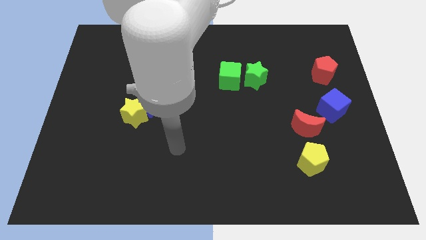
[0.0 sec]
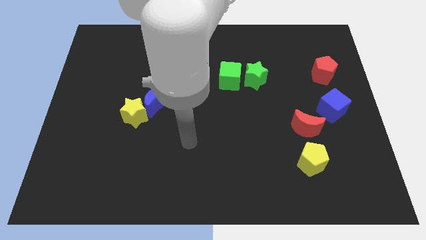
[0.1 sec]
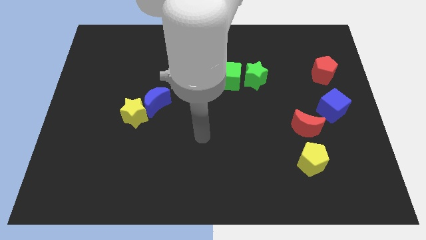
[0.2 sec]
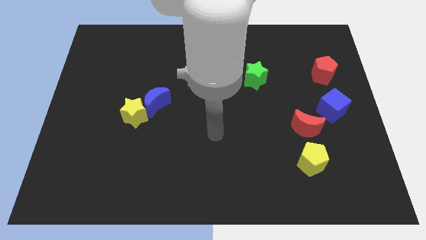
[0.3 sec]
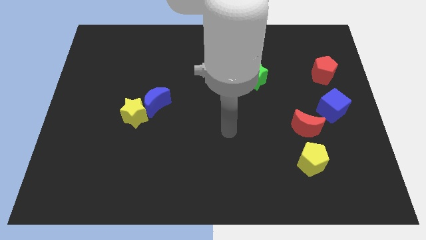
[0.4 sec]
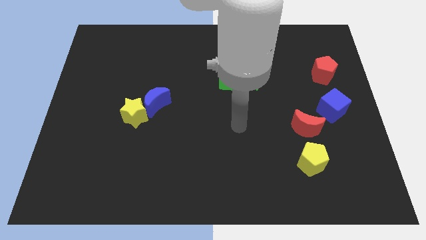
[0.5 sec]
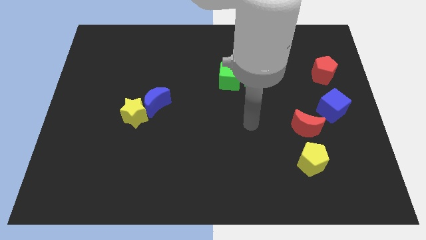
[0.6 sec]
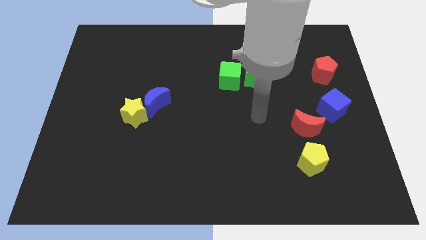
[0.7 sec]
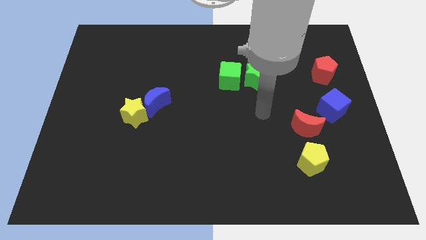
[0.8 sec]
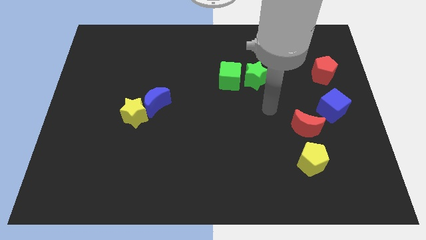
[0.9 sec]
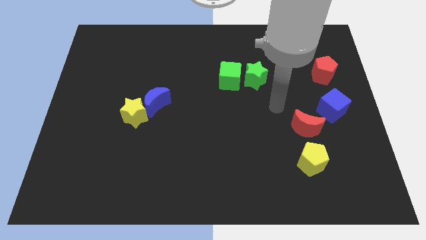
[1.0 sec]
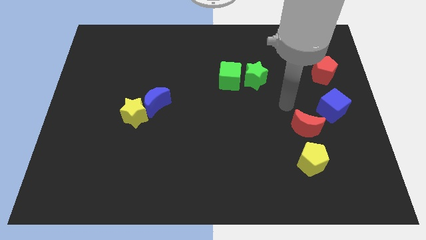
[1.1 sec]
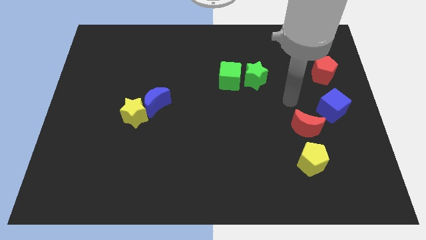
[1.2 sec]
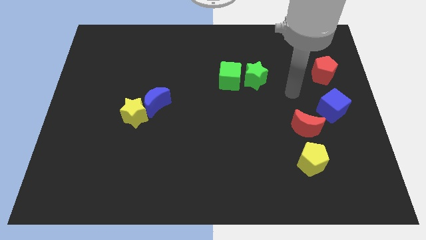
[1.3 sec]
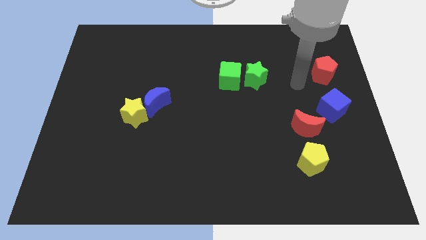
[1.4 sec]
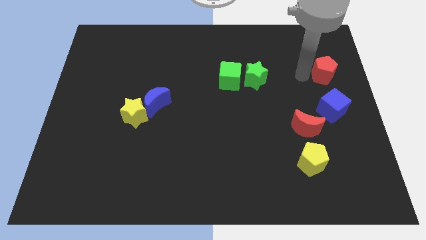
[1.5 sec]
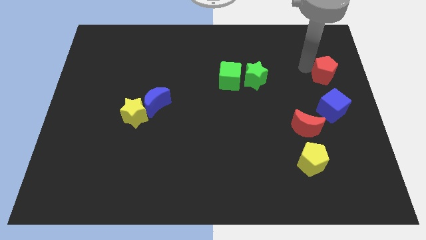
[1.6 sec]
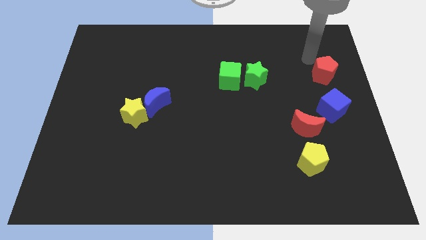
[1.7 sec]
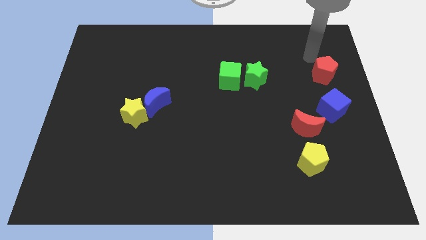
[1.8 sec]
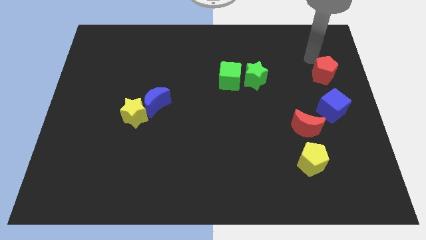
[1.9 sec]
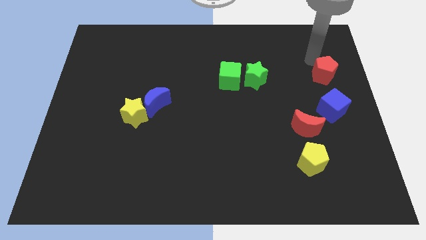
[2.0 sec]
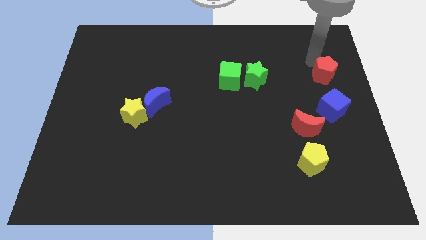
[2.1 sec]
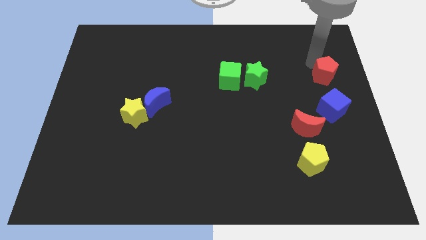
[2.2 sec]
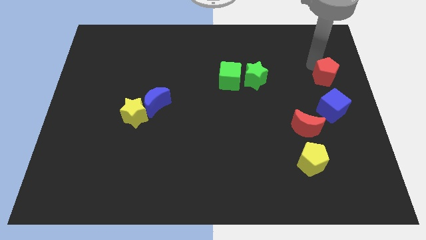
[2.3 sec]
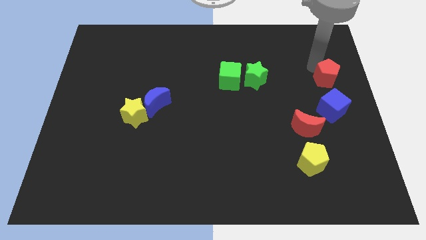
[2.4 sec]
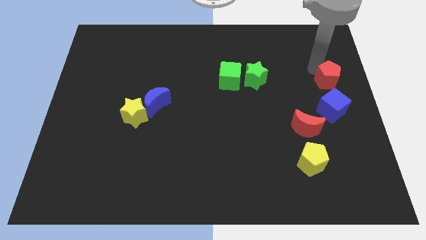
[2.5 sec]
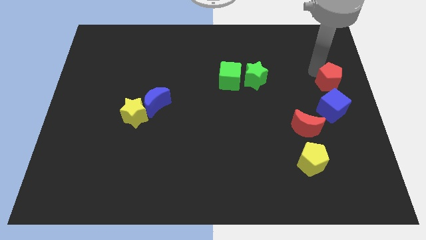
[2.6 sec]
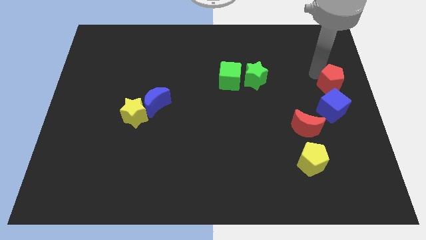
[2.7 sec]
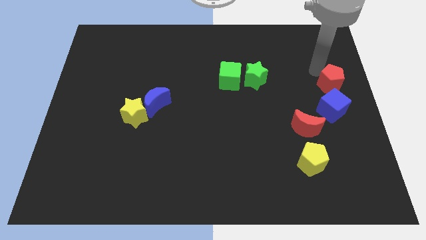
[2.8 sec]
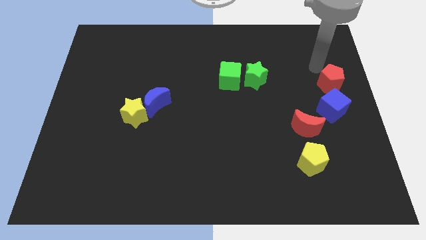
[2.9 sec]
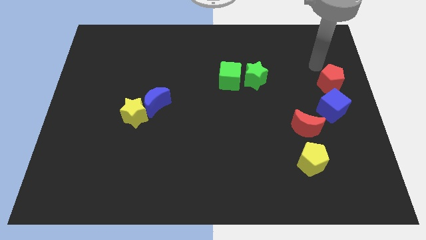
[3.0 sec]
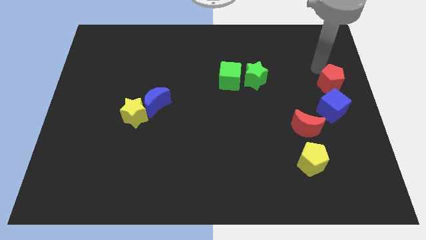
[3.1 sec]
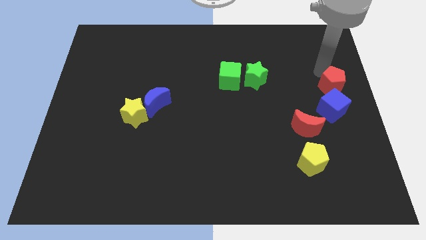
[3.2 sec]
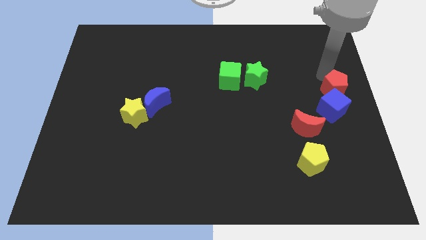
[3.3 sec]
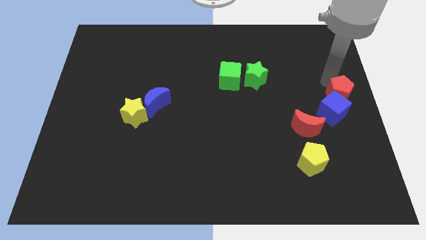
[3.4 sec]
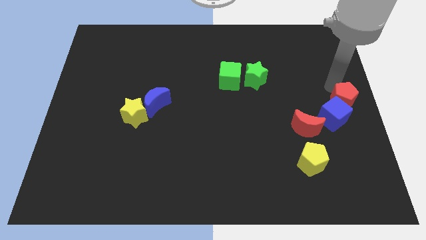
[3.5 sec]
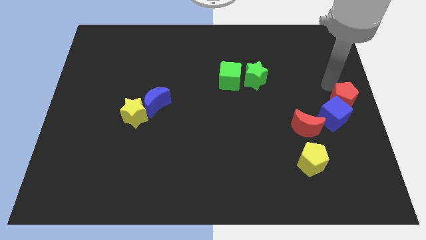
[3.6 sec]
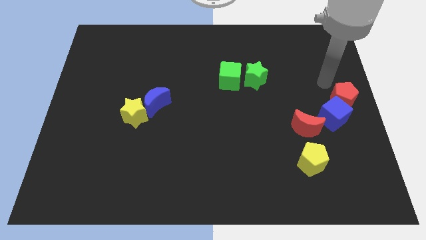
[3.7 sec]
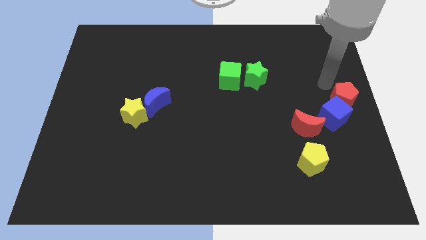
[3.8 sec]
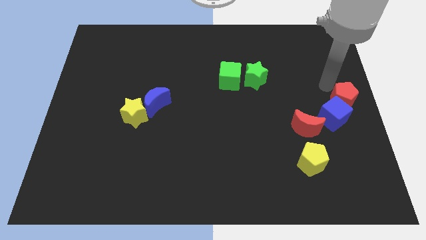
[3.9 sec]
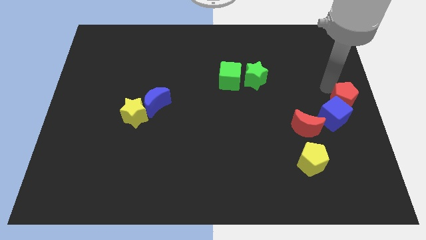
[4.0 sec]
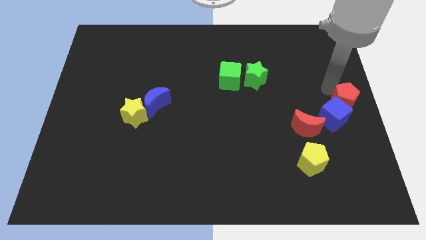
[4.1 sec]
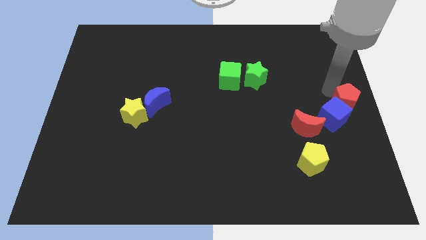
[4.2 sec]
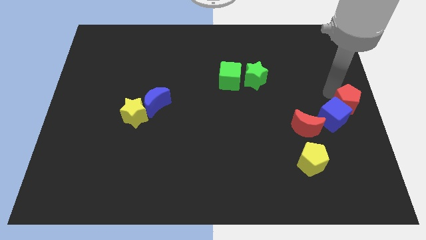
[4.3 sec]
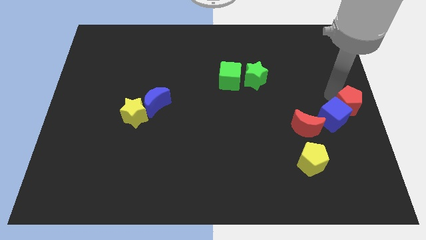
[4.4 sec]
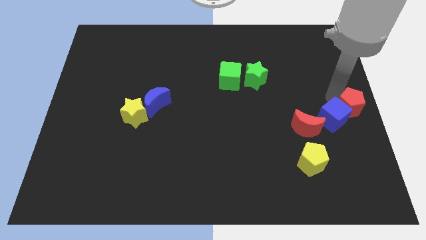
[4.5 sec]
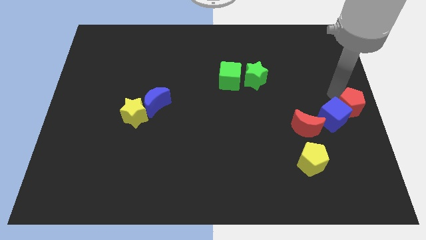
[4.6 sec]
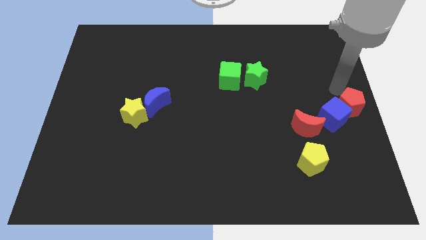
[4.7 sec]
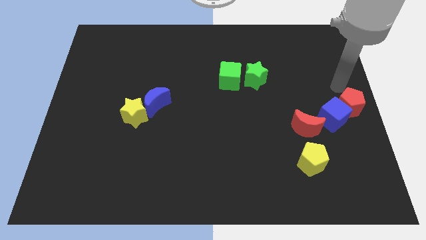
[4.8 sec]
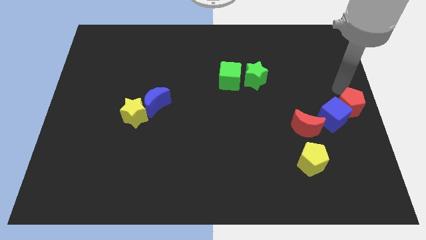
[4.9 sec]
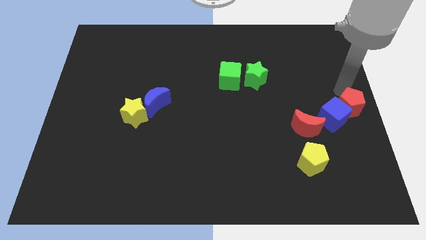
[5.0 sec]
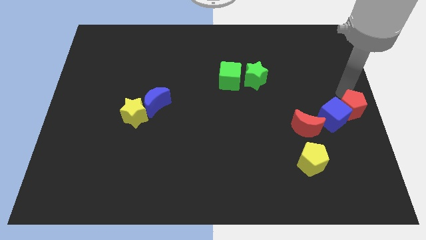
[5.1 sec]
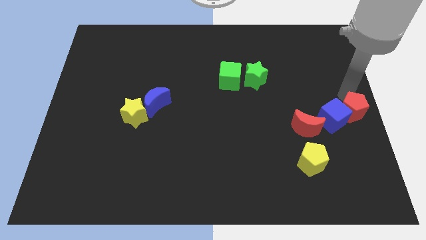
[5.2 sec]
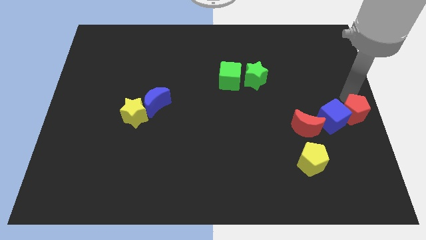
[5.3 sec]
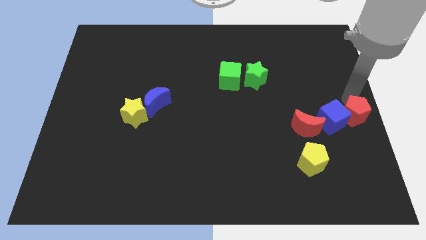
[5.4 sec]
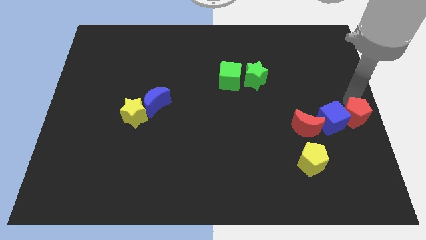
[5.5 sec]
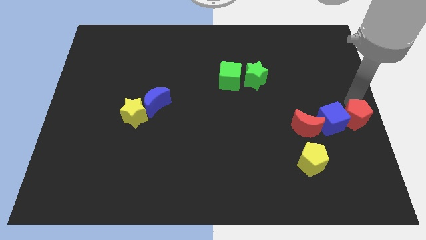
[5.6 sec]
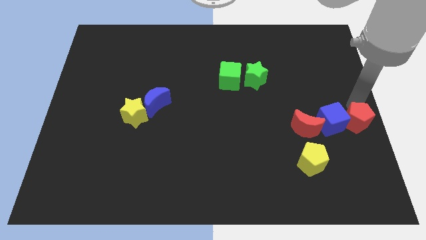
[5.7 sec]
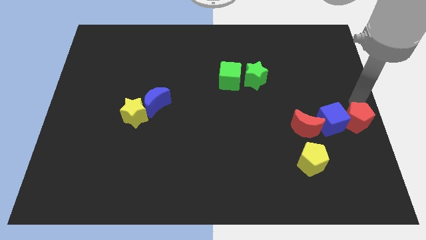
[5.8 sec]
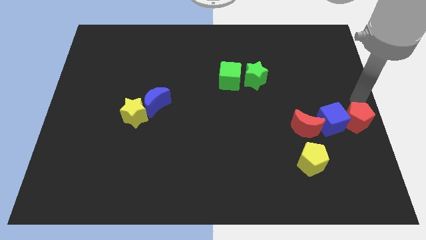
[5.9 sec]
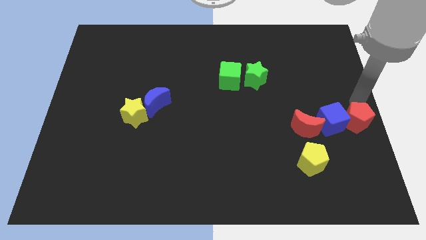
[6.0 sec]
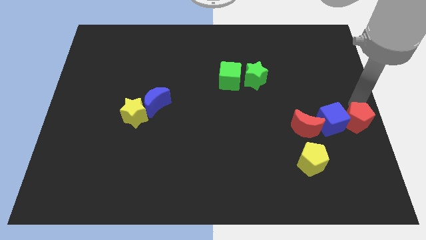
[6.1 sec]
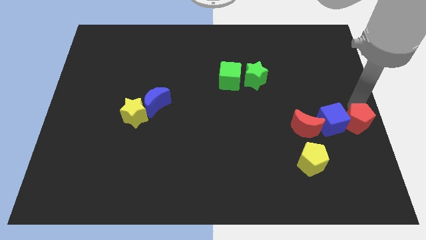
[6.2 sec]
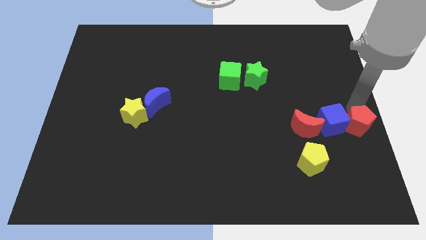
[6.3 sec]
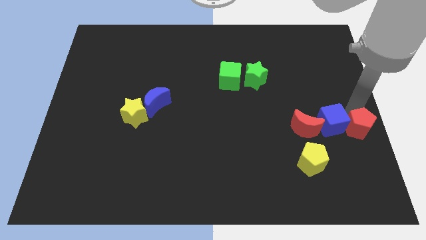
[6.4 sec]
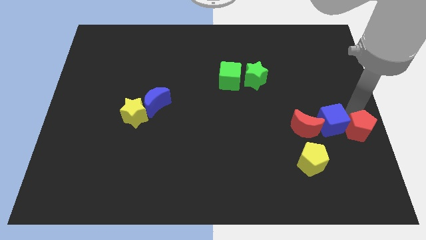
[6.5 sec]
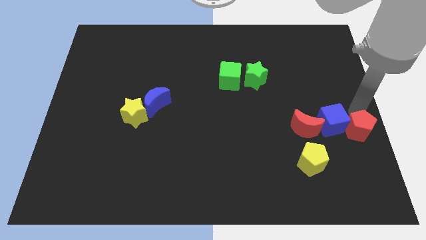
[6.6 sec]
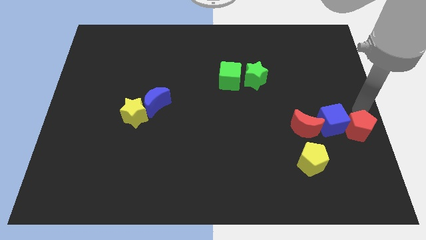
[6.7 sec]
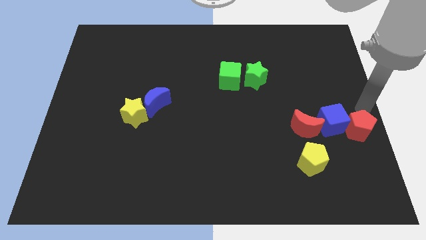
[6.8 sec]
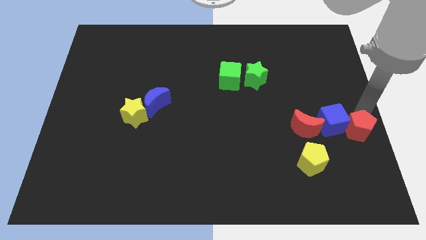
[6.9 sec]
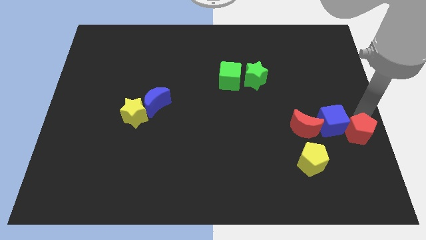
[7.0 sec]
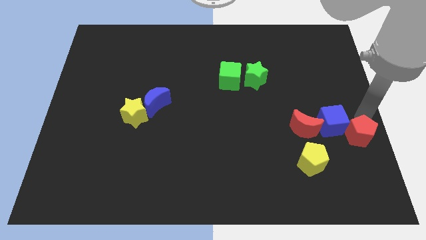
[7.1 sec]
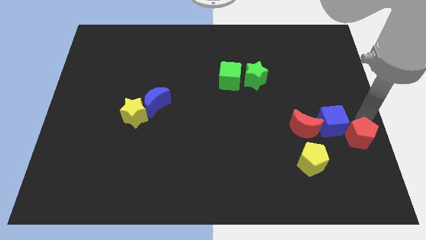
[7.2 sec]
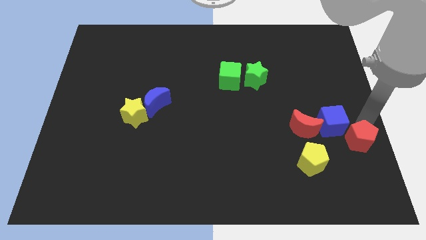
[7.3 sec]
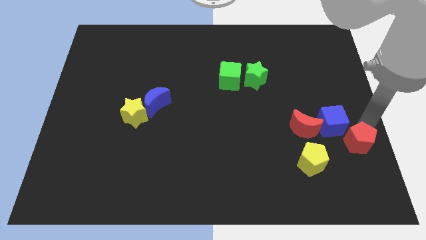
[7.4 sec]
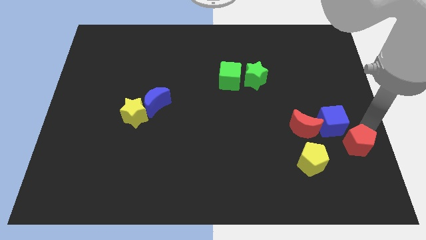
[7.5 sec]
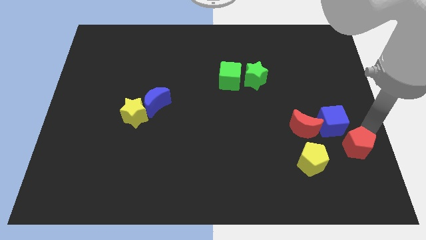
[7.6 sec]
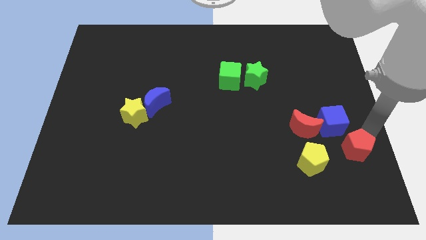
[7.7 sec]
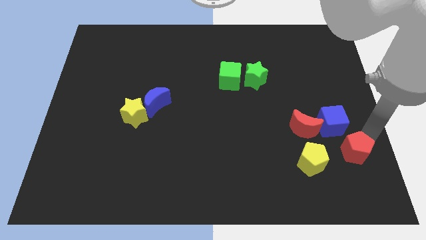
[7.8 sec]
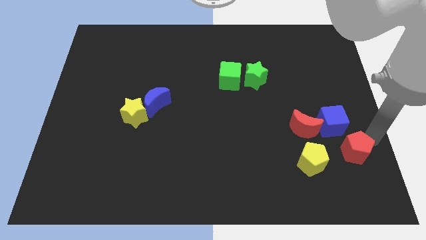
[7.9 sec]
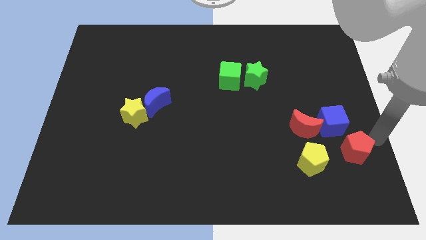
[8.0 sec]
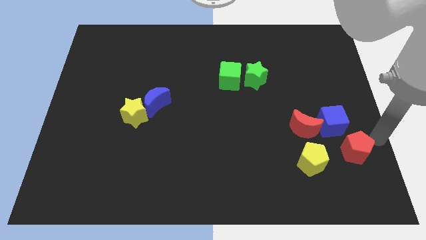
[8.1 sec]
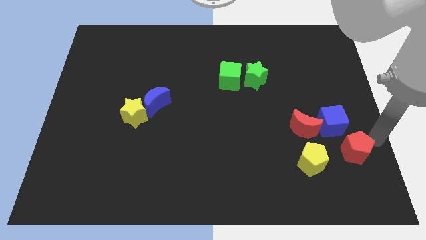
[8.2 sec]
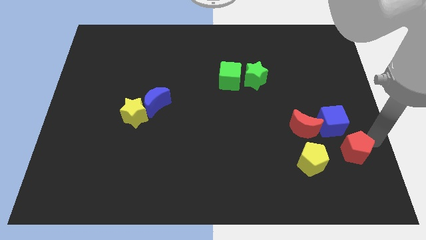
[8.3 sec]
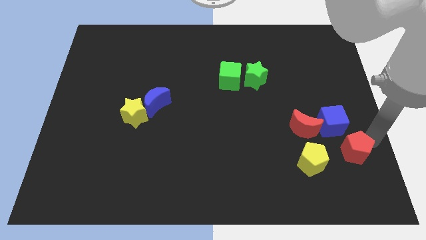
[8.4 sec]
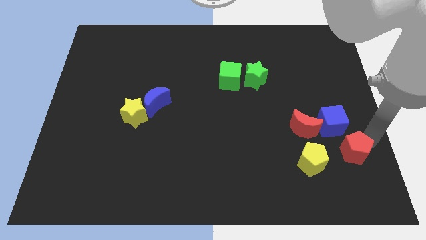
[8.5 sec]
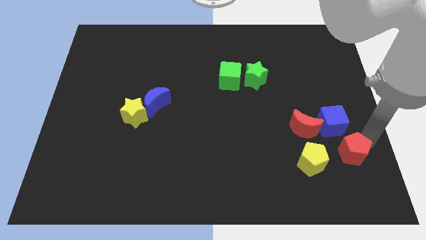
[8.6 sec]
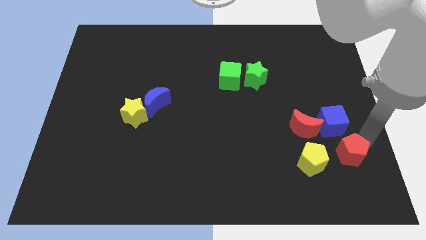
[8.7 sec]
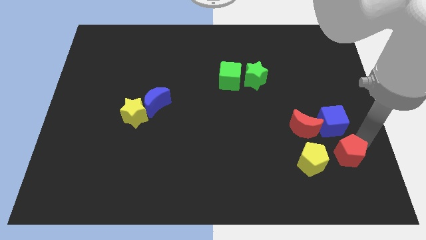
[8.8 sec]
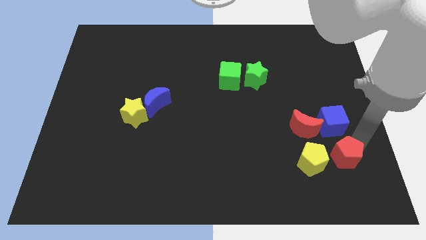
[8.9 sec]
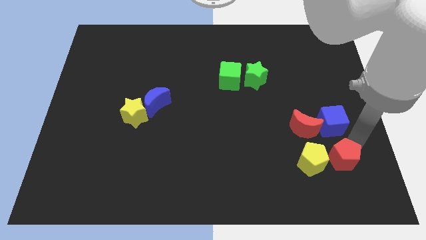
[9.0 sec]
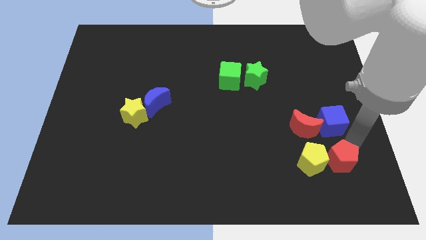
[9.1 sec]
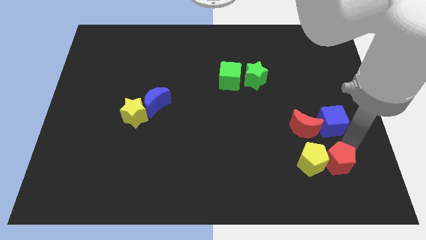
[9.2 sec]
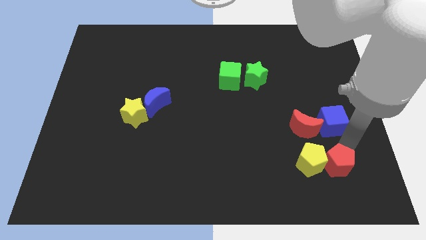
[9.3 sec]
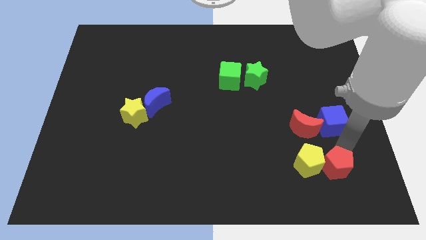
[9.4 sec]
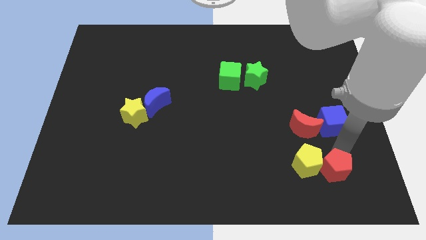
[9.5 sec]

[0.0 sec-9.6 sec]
push the red pentagon to the bottom of the red moon
